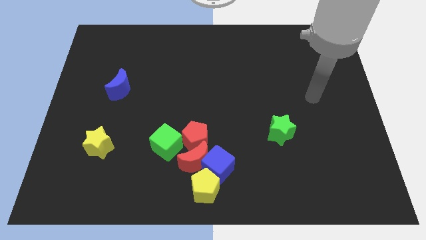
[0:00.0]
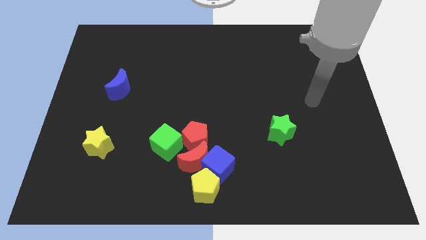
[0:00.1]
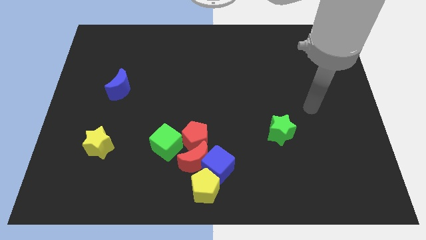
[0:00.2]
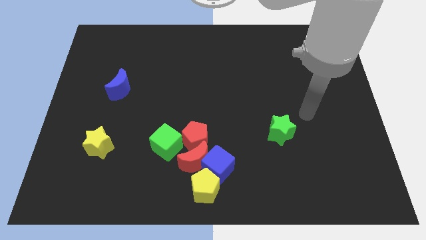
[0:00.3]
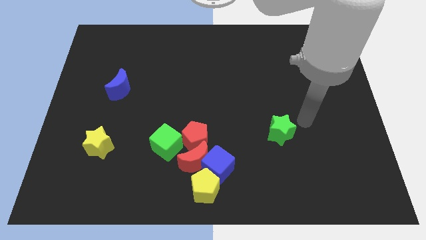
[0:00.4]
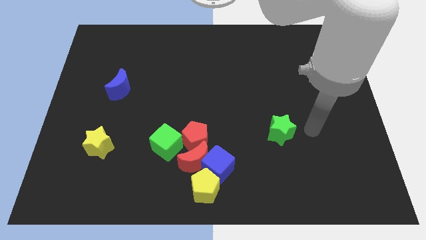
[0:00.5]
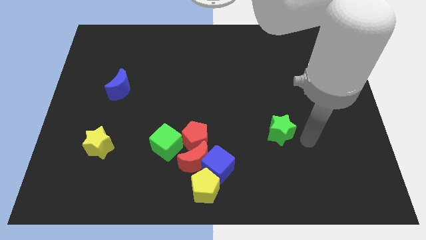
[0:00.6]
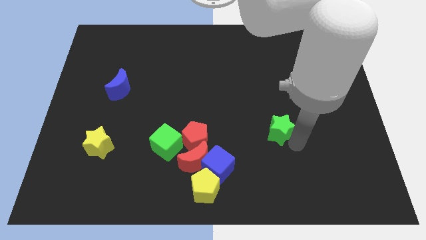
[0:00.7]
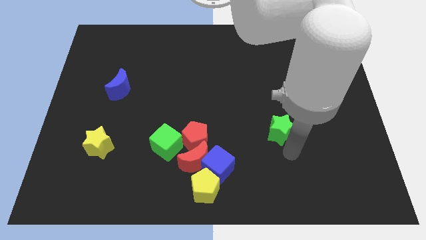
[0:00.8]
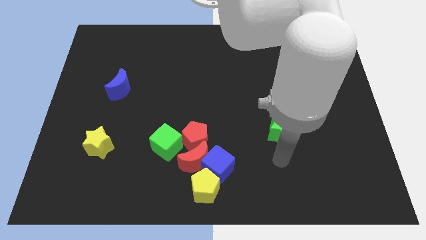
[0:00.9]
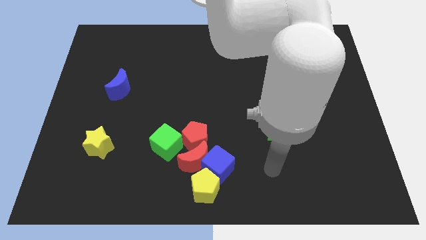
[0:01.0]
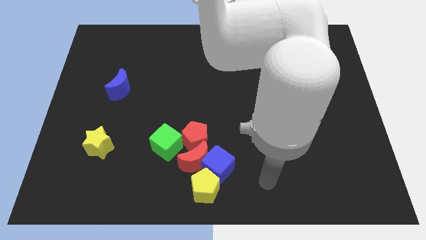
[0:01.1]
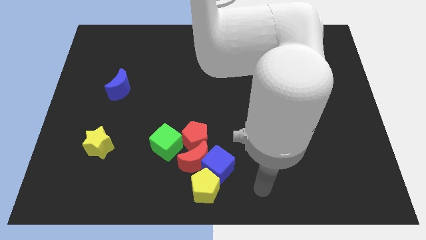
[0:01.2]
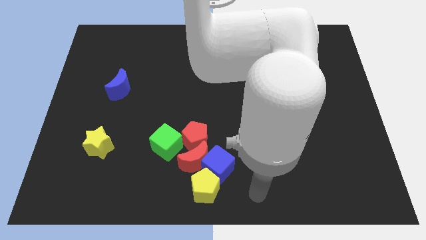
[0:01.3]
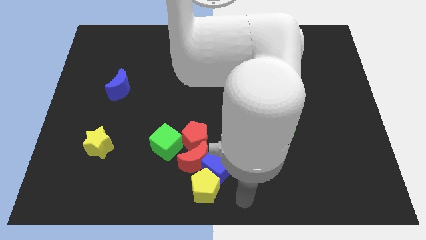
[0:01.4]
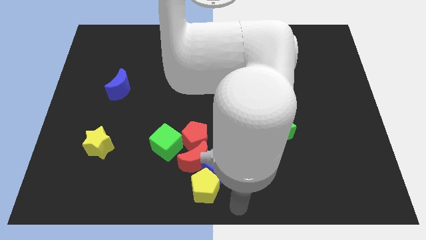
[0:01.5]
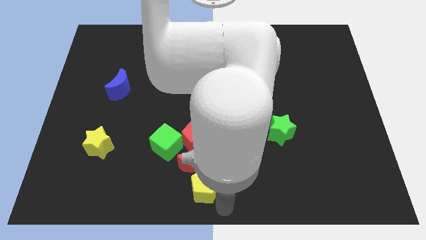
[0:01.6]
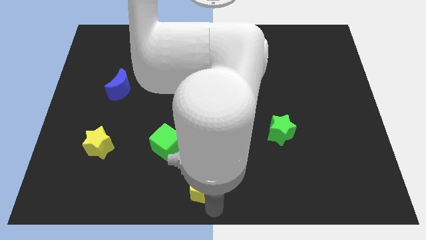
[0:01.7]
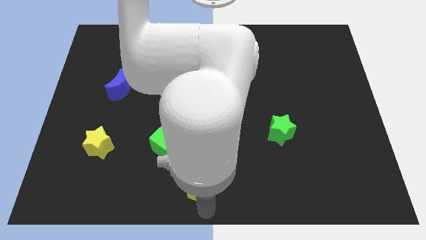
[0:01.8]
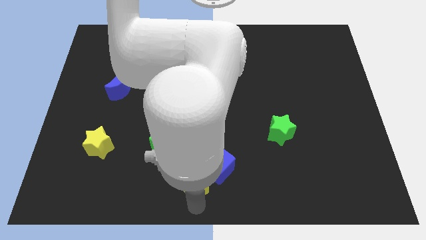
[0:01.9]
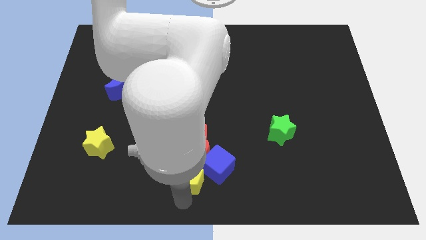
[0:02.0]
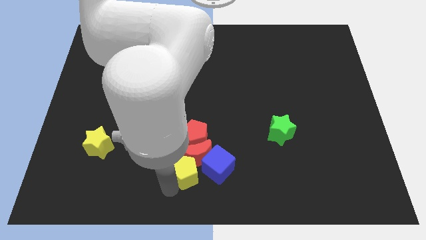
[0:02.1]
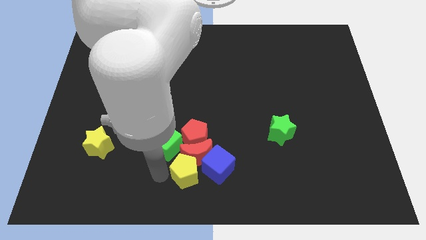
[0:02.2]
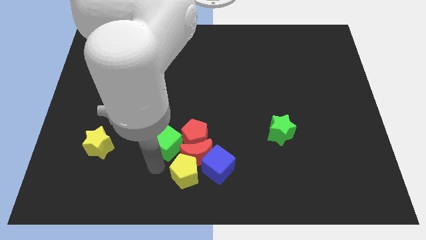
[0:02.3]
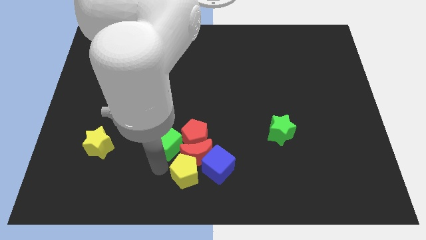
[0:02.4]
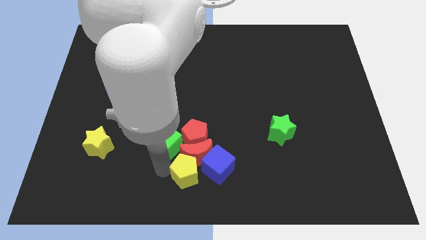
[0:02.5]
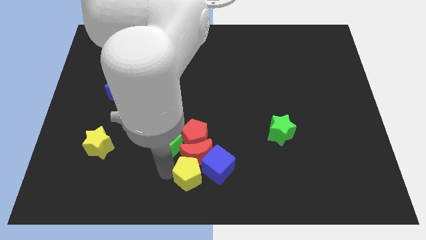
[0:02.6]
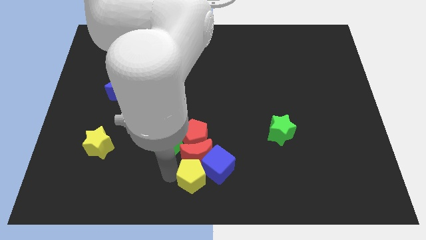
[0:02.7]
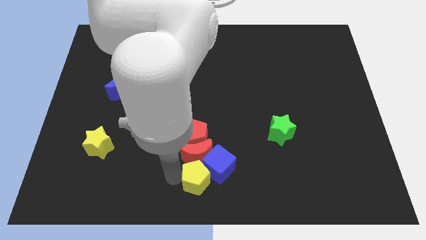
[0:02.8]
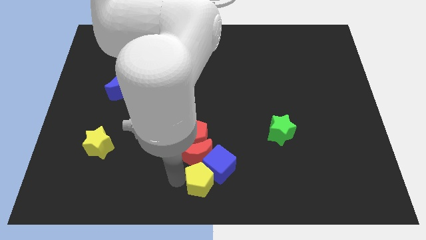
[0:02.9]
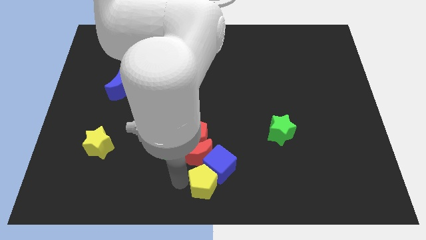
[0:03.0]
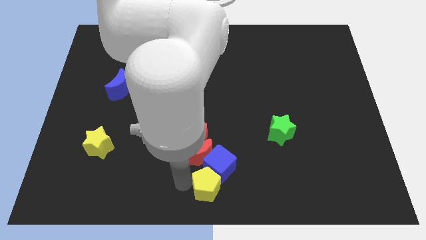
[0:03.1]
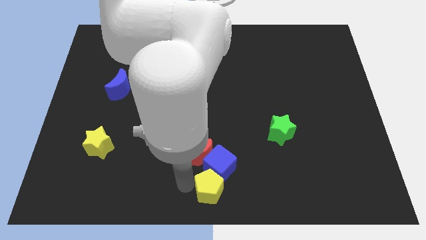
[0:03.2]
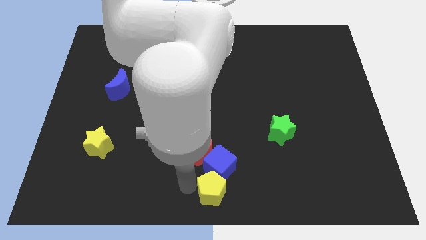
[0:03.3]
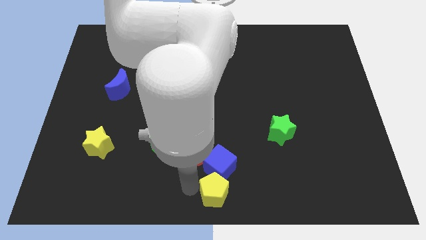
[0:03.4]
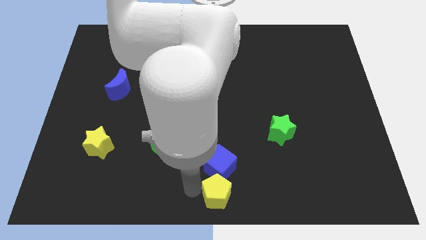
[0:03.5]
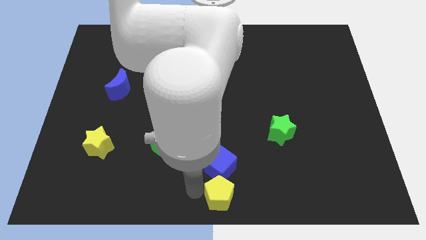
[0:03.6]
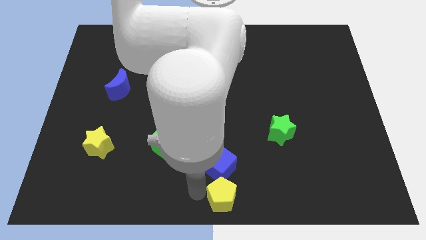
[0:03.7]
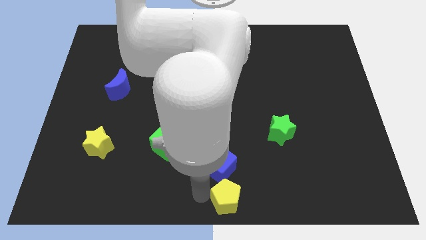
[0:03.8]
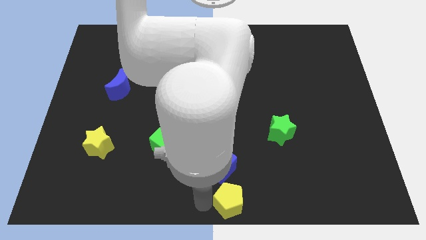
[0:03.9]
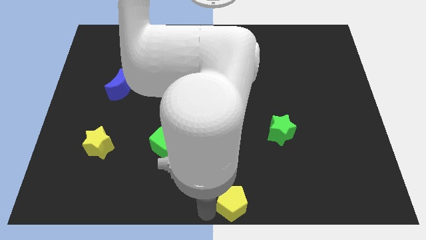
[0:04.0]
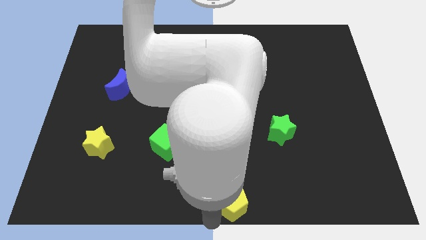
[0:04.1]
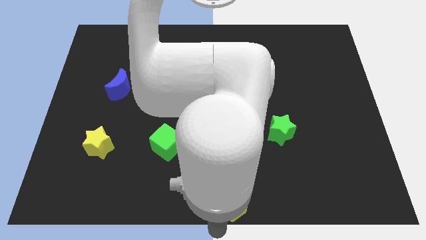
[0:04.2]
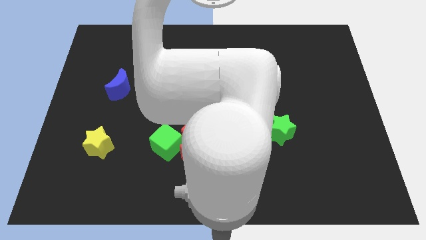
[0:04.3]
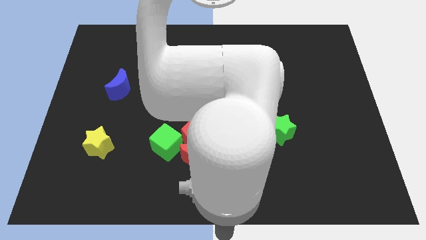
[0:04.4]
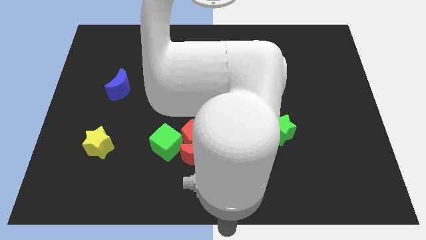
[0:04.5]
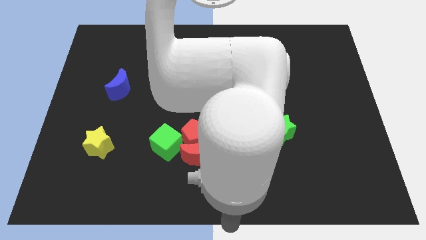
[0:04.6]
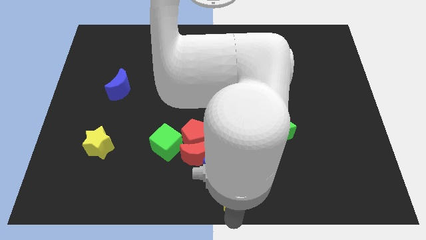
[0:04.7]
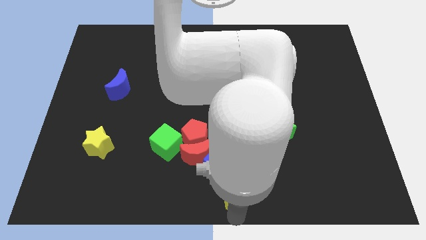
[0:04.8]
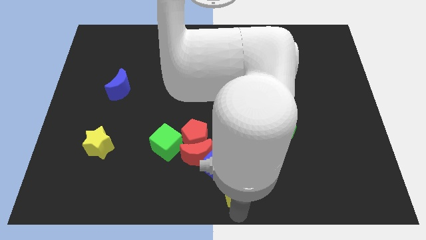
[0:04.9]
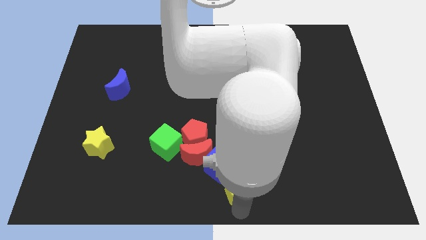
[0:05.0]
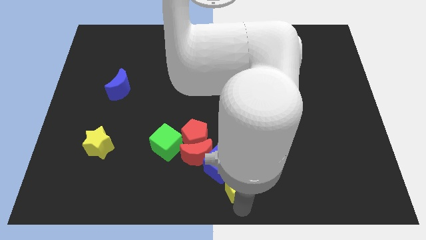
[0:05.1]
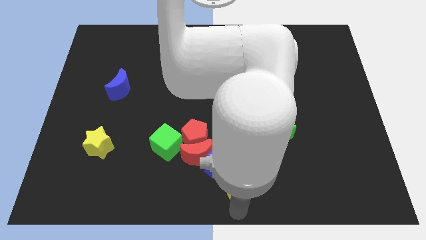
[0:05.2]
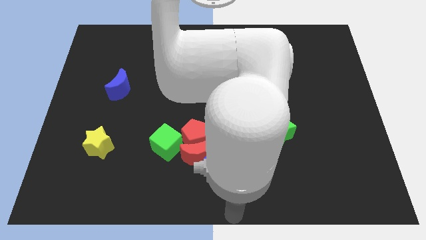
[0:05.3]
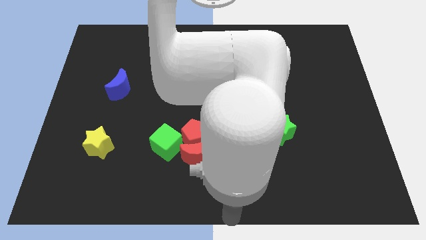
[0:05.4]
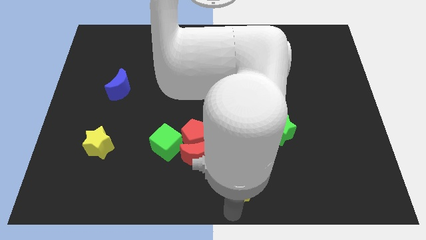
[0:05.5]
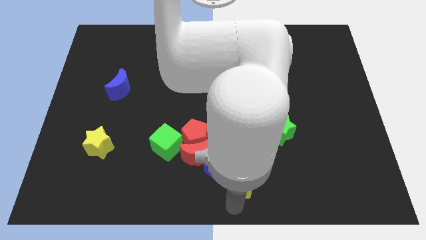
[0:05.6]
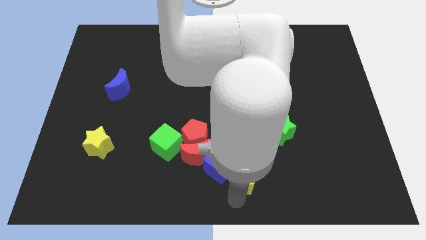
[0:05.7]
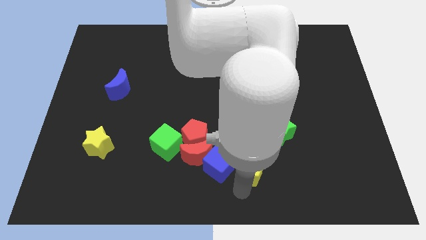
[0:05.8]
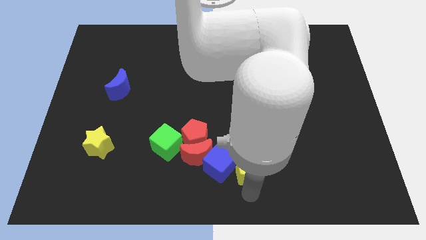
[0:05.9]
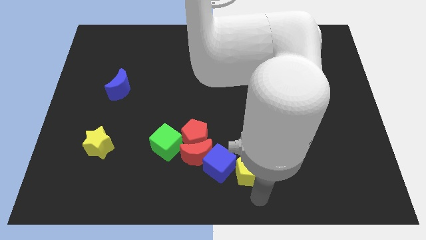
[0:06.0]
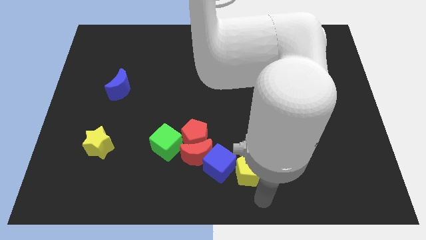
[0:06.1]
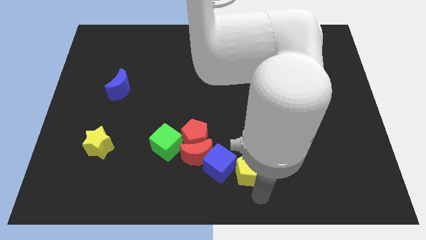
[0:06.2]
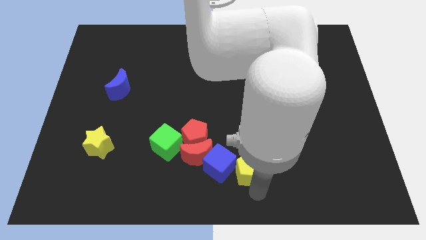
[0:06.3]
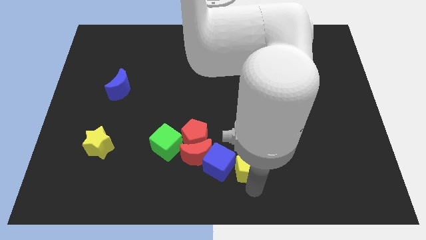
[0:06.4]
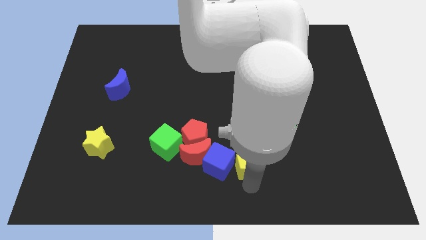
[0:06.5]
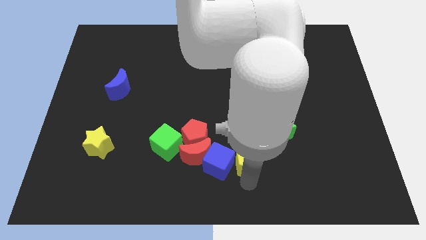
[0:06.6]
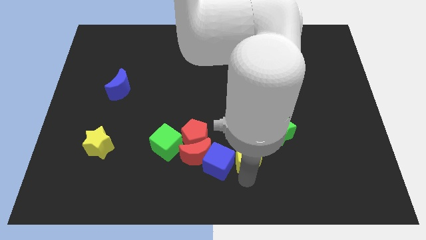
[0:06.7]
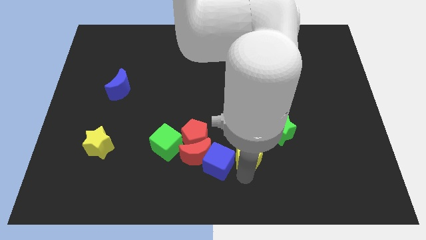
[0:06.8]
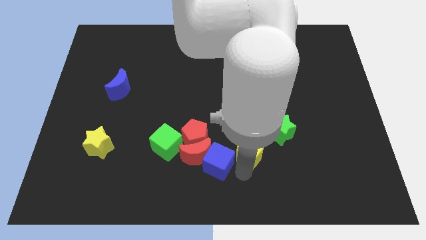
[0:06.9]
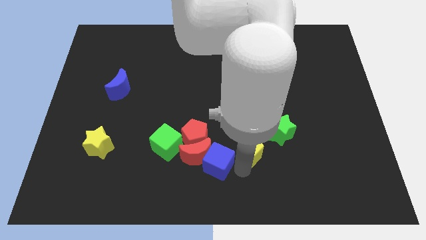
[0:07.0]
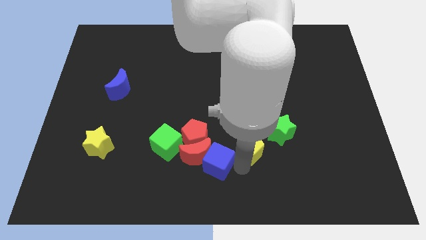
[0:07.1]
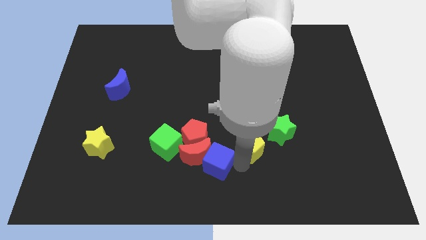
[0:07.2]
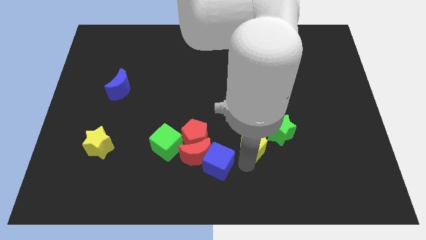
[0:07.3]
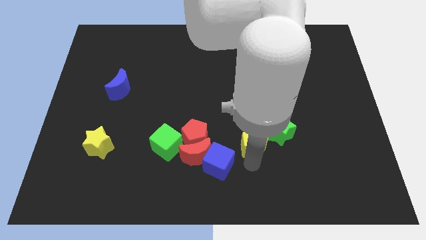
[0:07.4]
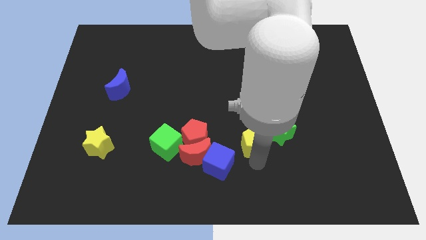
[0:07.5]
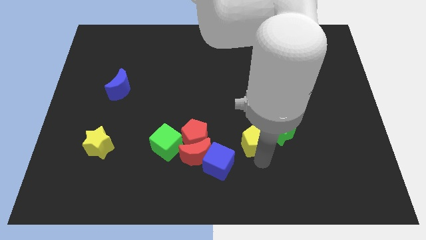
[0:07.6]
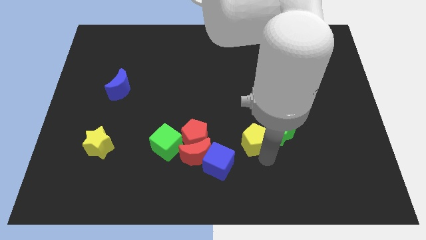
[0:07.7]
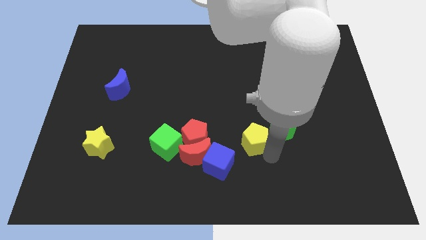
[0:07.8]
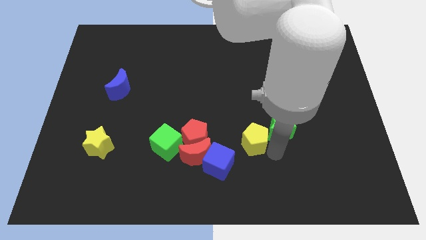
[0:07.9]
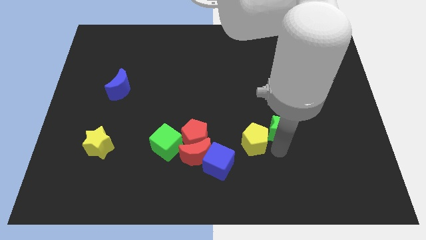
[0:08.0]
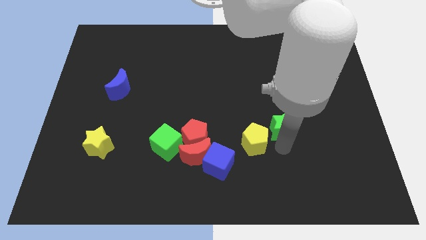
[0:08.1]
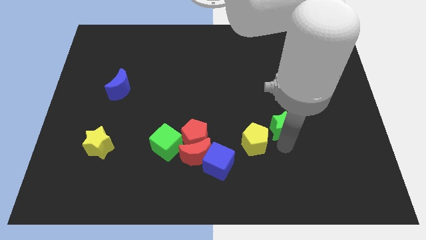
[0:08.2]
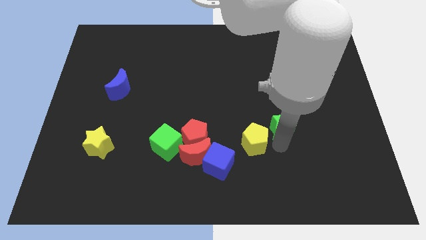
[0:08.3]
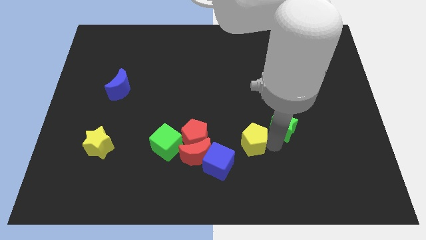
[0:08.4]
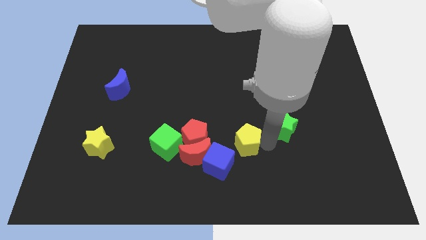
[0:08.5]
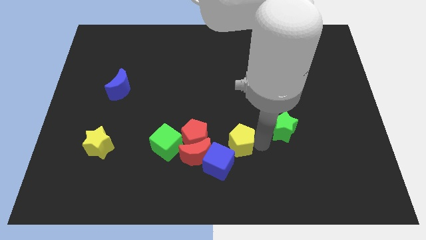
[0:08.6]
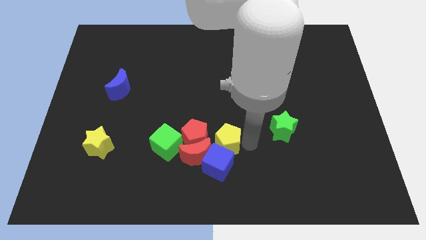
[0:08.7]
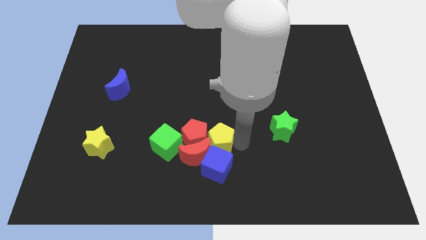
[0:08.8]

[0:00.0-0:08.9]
put the yellow pentagon towards the red pentagon
